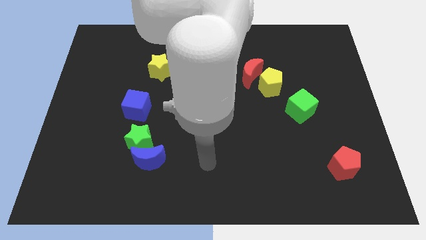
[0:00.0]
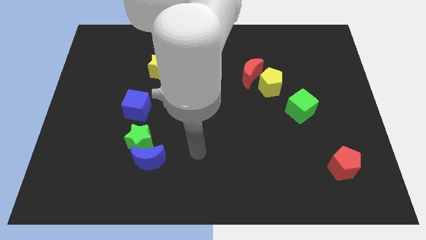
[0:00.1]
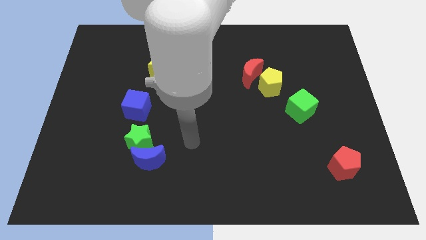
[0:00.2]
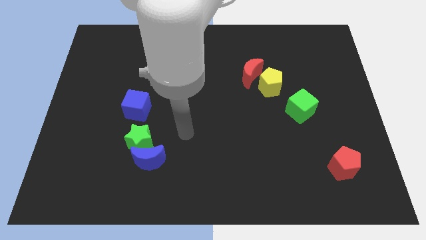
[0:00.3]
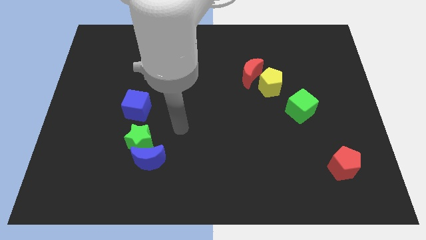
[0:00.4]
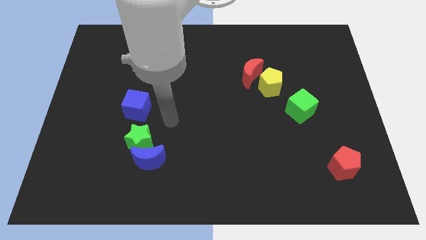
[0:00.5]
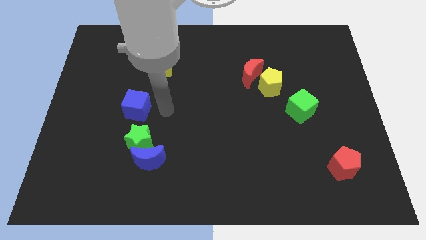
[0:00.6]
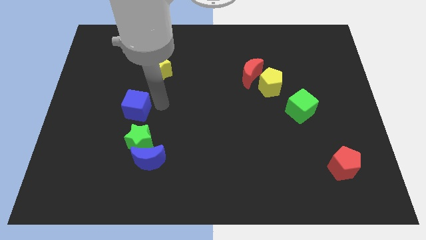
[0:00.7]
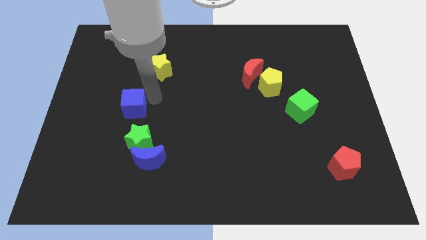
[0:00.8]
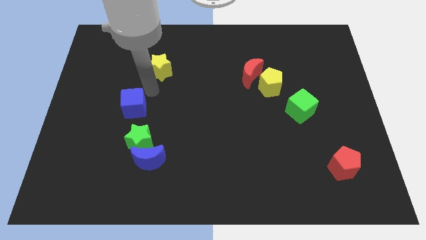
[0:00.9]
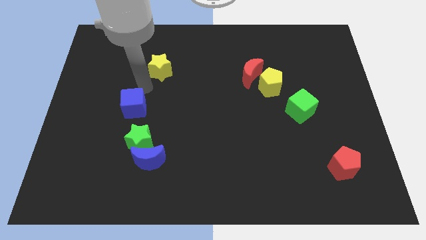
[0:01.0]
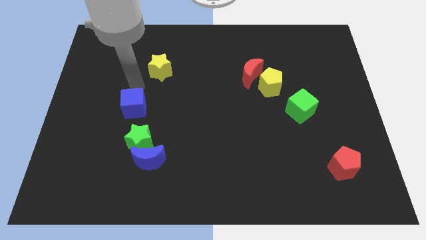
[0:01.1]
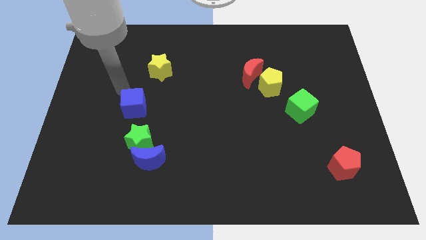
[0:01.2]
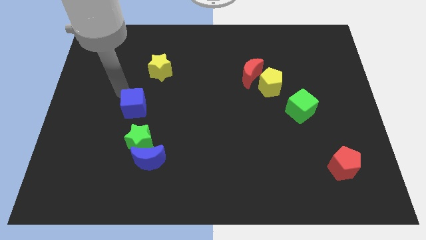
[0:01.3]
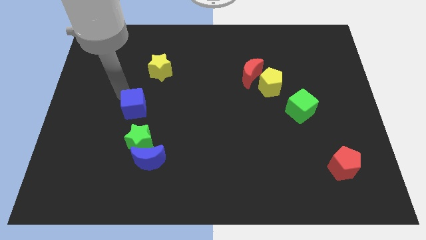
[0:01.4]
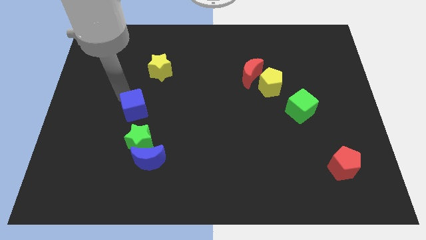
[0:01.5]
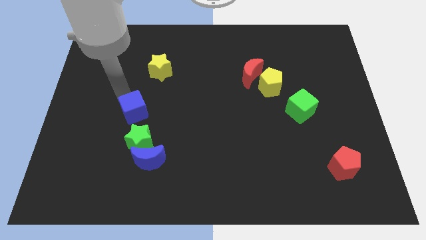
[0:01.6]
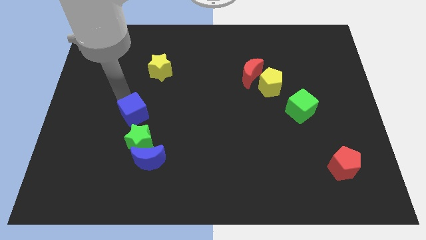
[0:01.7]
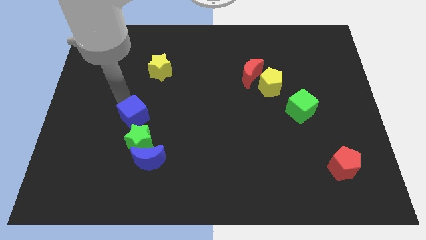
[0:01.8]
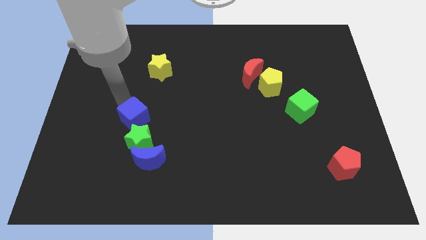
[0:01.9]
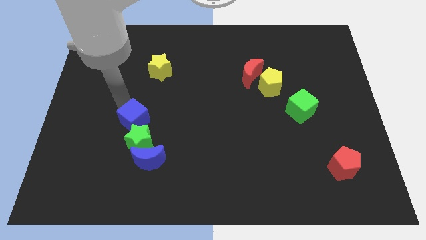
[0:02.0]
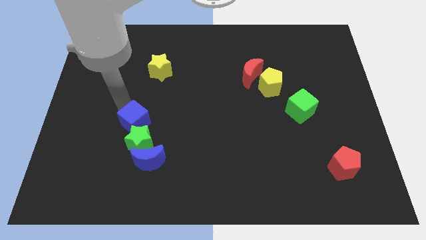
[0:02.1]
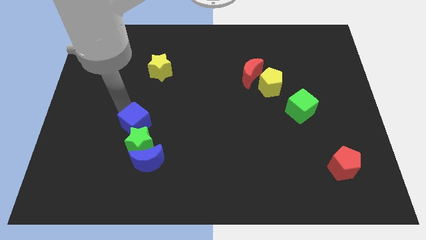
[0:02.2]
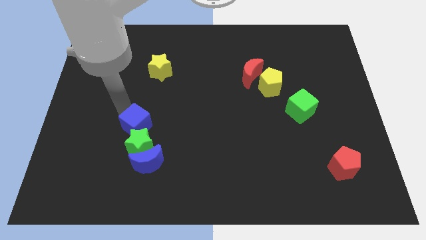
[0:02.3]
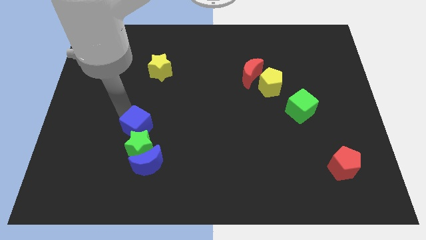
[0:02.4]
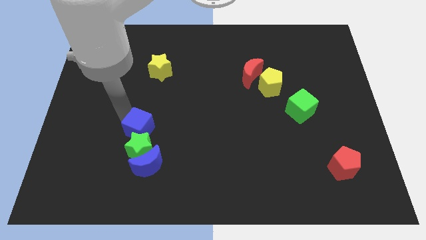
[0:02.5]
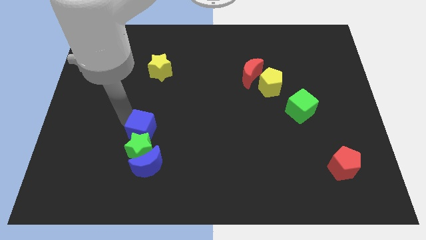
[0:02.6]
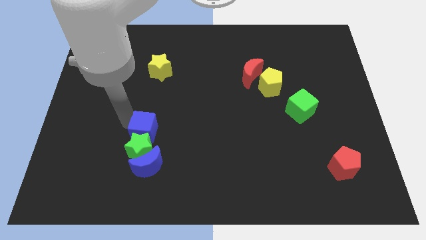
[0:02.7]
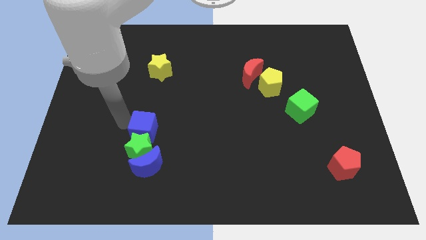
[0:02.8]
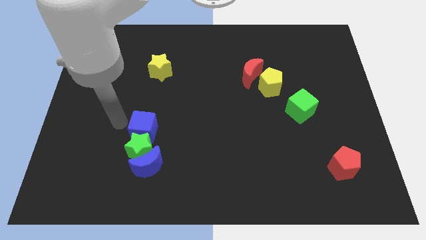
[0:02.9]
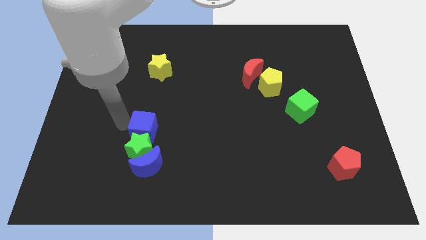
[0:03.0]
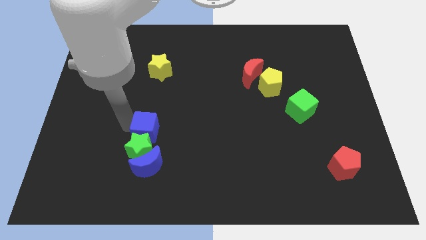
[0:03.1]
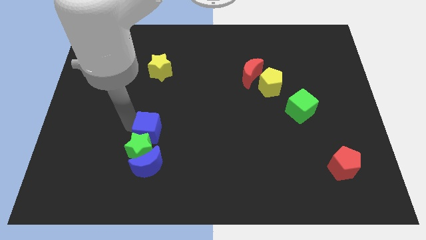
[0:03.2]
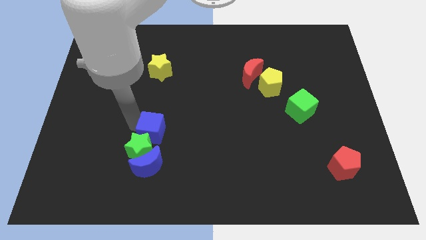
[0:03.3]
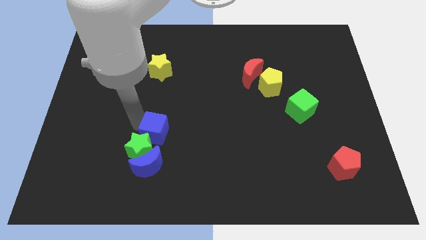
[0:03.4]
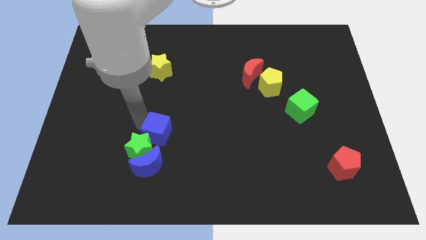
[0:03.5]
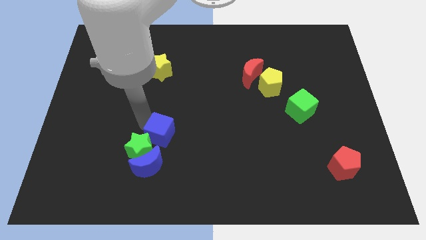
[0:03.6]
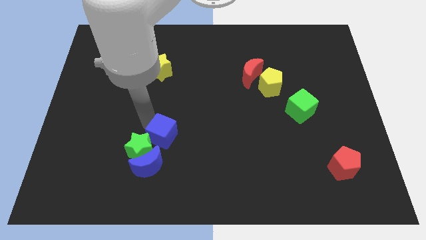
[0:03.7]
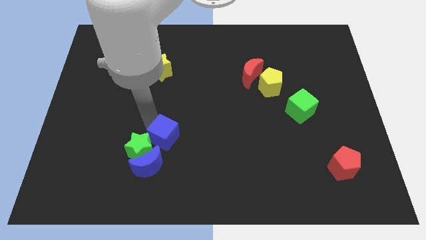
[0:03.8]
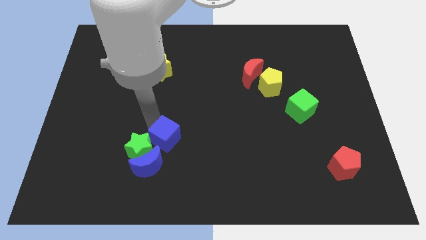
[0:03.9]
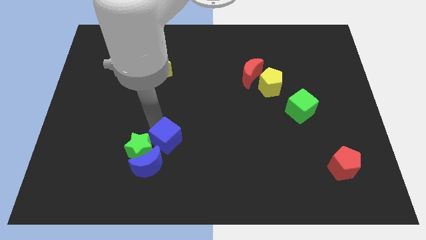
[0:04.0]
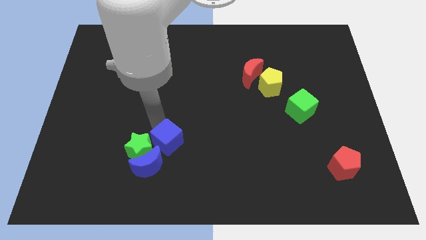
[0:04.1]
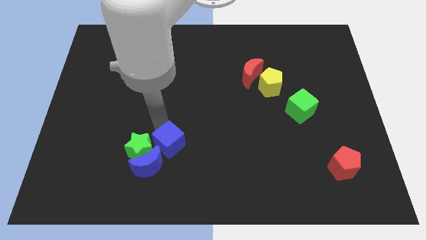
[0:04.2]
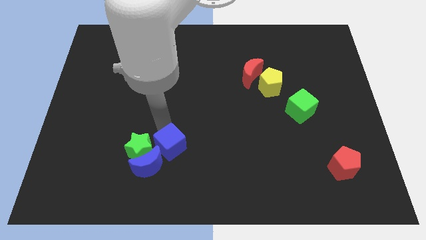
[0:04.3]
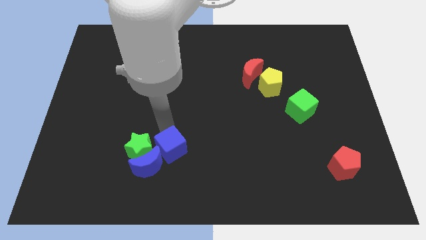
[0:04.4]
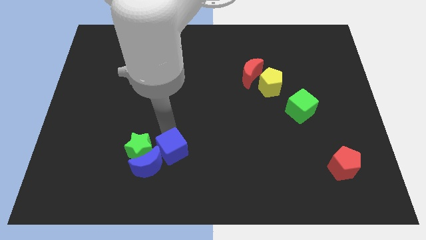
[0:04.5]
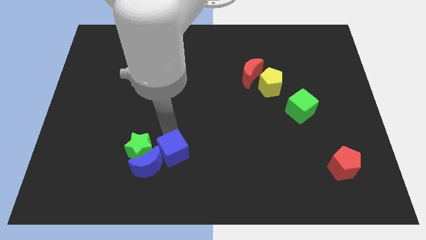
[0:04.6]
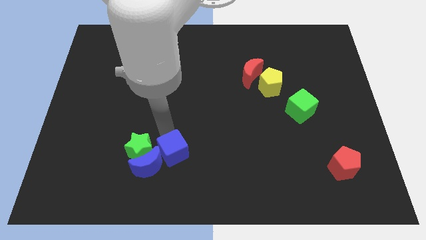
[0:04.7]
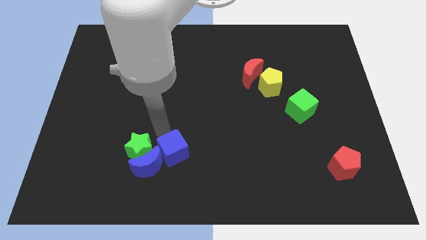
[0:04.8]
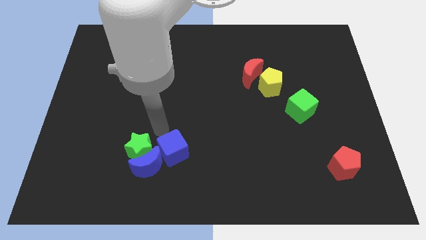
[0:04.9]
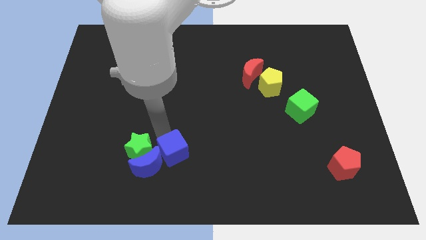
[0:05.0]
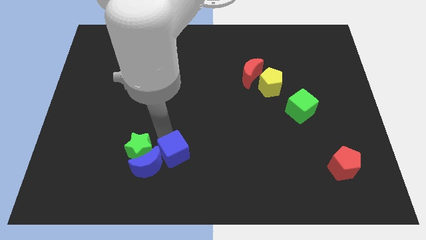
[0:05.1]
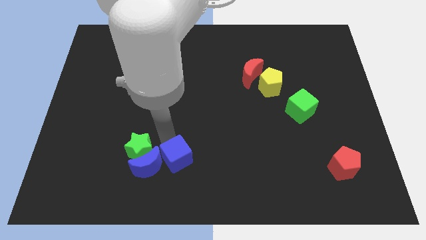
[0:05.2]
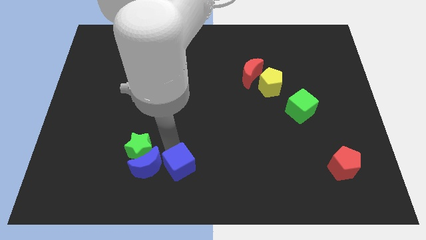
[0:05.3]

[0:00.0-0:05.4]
push the blue cube to the bottom

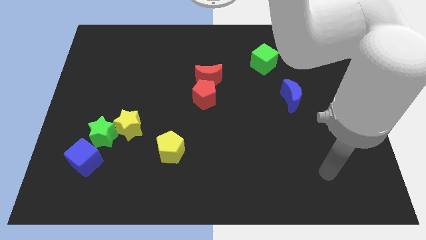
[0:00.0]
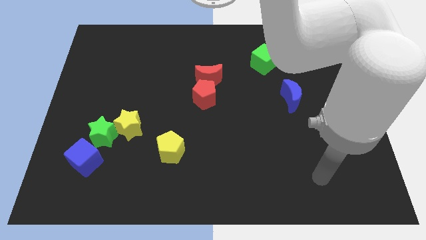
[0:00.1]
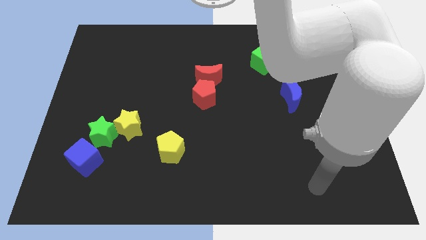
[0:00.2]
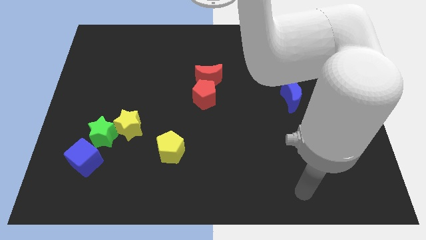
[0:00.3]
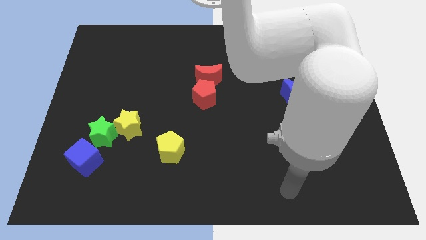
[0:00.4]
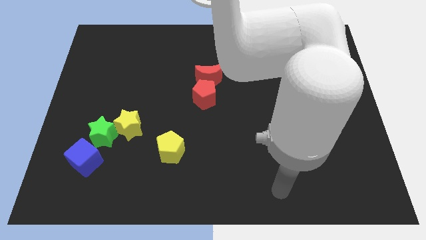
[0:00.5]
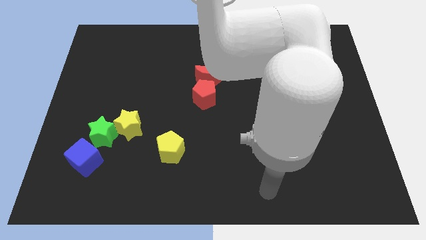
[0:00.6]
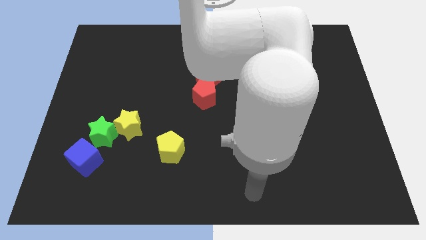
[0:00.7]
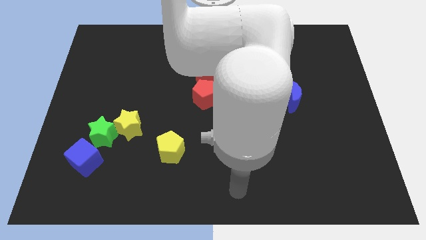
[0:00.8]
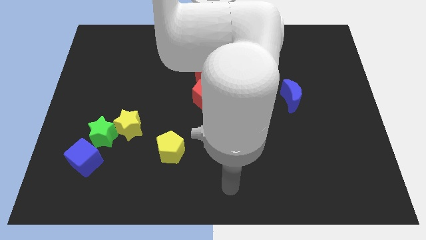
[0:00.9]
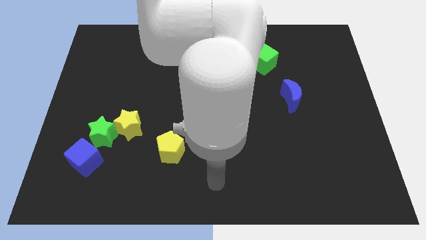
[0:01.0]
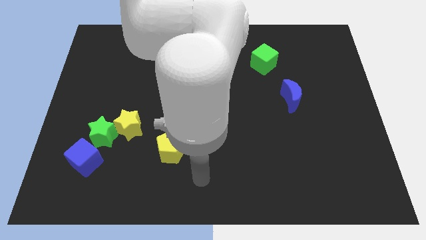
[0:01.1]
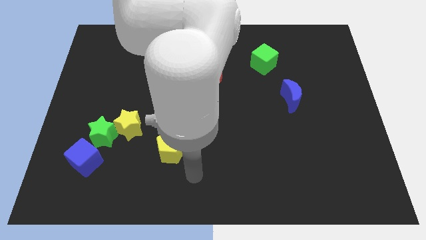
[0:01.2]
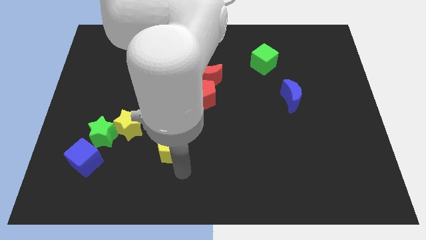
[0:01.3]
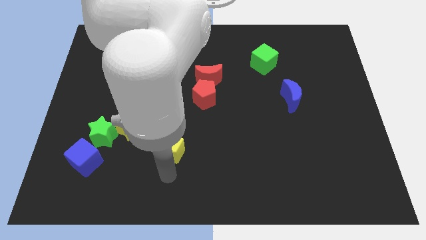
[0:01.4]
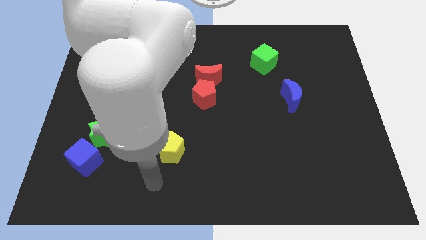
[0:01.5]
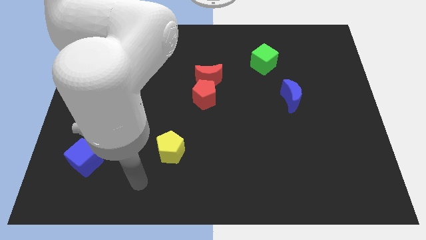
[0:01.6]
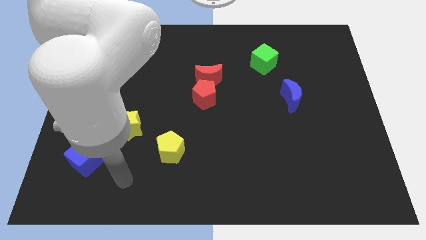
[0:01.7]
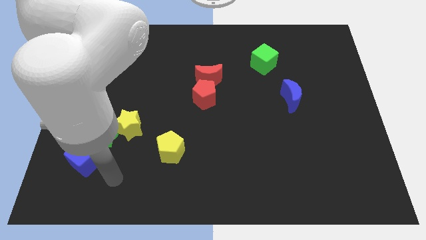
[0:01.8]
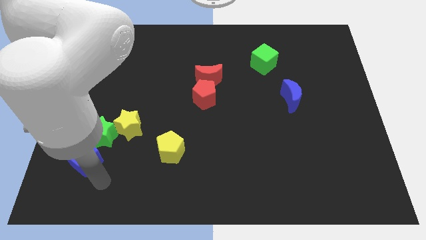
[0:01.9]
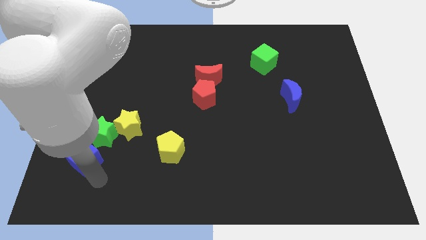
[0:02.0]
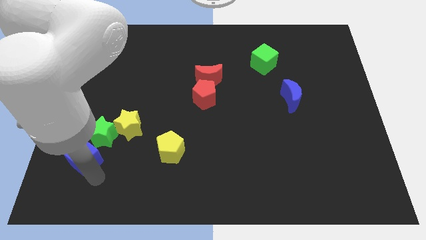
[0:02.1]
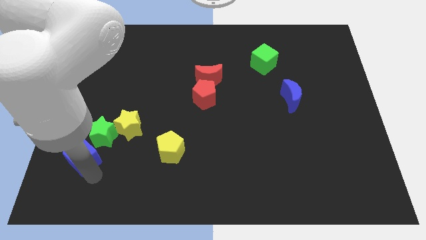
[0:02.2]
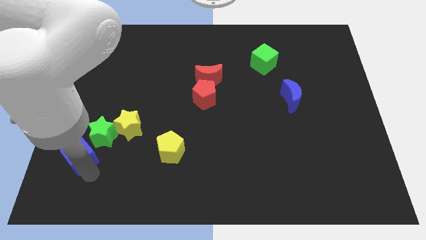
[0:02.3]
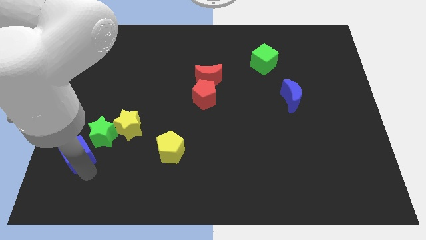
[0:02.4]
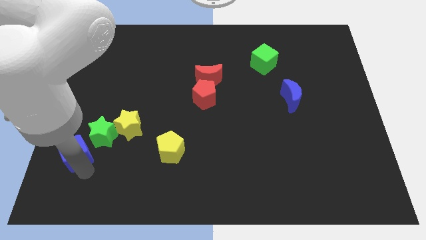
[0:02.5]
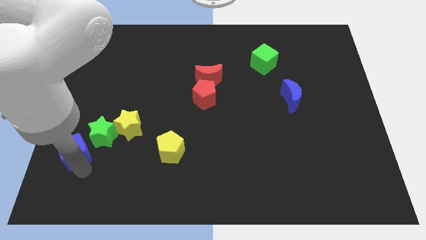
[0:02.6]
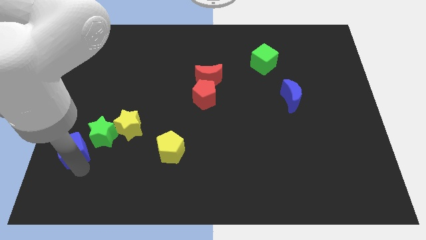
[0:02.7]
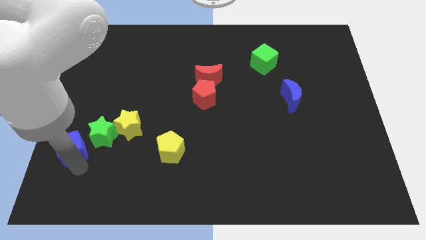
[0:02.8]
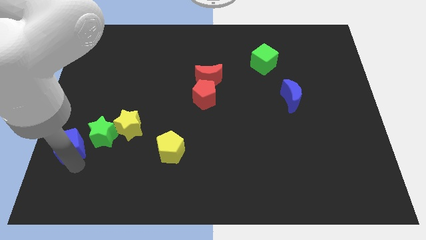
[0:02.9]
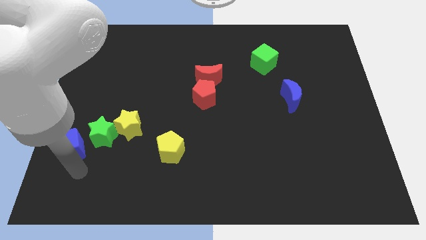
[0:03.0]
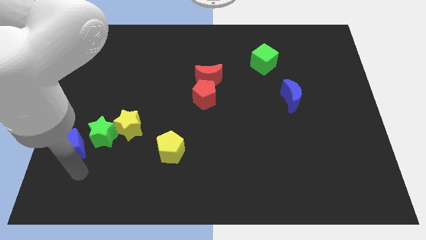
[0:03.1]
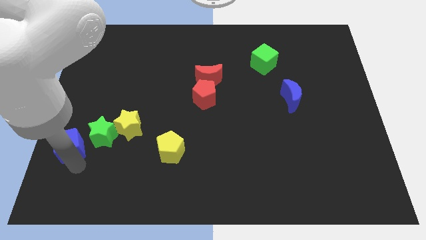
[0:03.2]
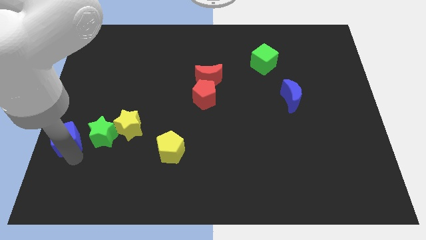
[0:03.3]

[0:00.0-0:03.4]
move the blue cube to the left side of the board
